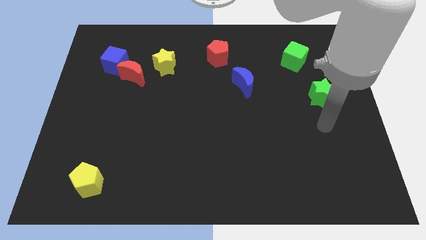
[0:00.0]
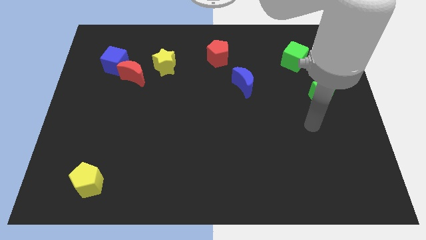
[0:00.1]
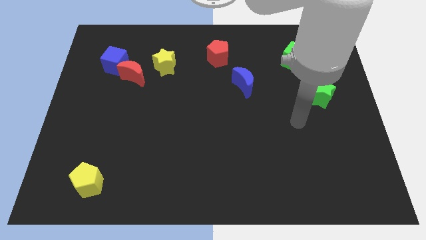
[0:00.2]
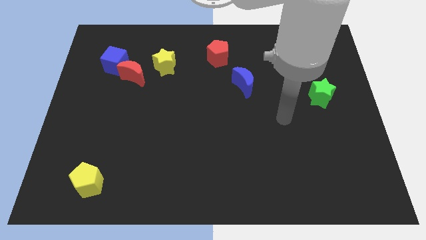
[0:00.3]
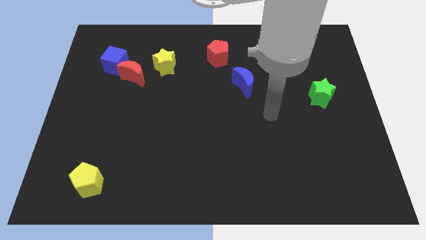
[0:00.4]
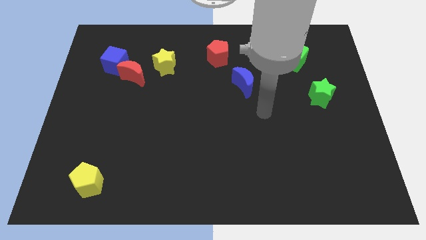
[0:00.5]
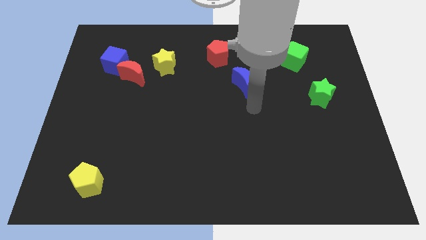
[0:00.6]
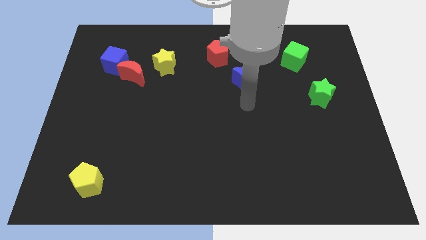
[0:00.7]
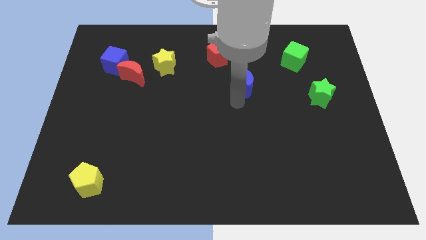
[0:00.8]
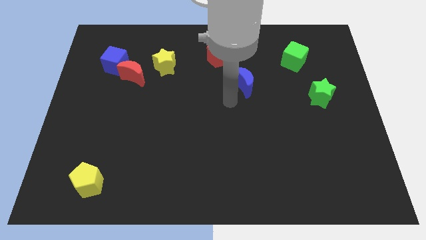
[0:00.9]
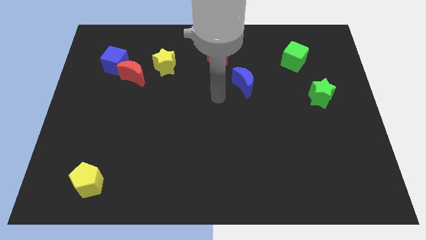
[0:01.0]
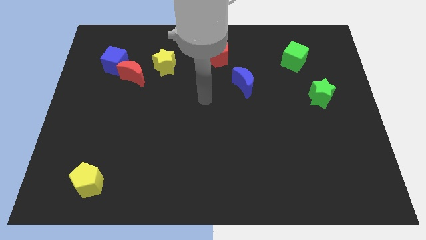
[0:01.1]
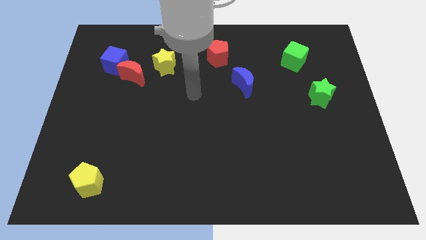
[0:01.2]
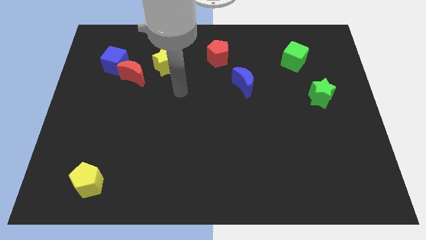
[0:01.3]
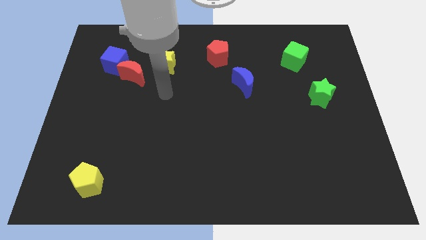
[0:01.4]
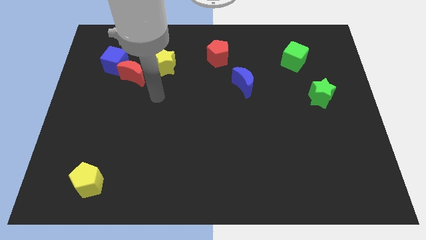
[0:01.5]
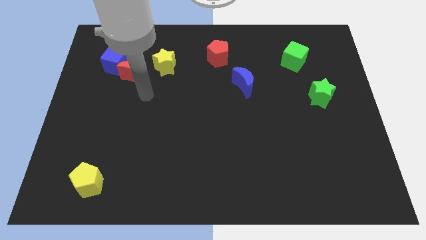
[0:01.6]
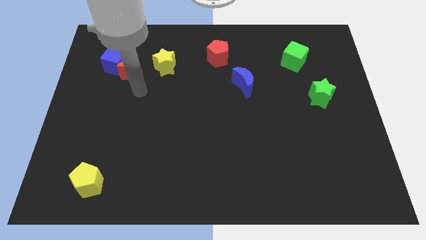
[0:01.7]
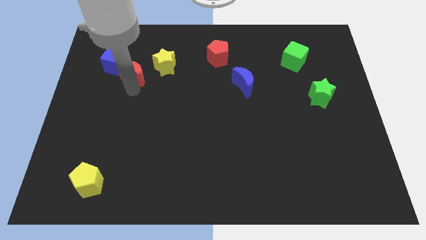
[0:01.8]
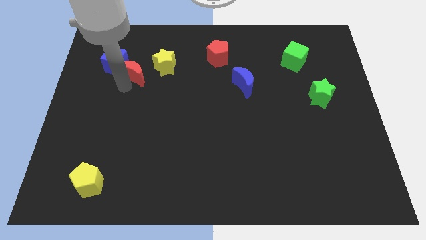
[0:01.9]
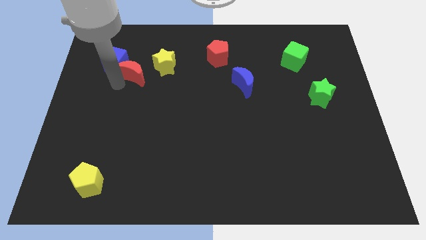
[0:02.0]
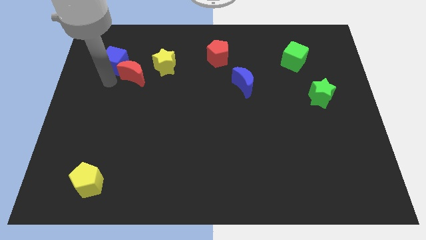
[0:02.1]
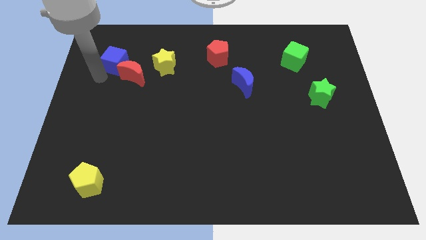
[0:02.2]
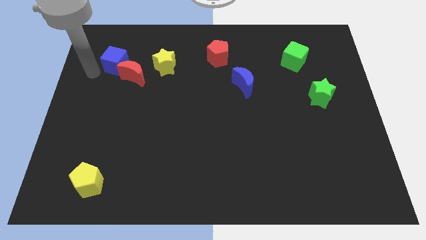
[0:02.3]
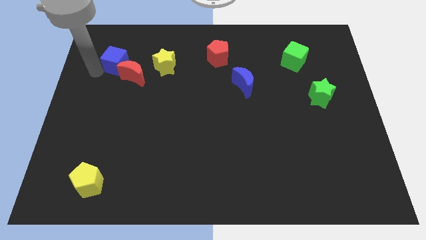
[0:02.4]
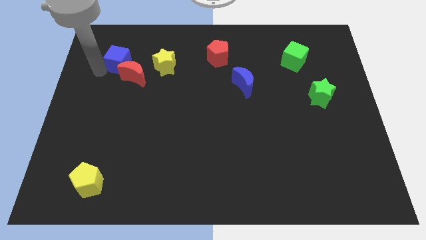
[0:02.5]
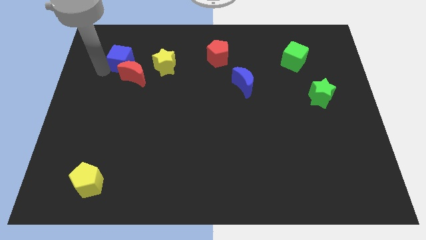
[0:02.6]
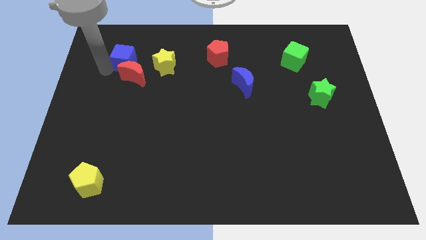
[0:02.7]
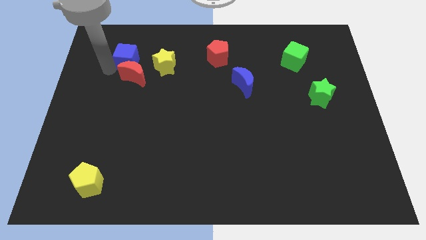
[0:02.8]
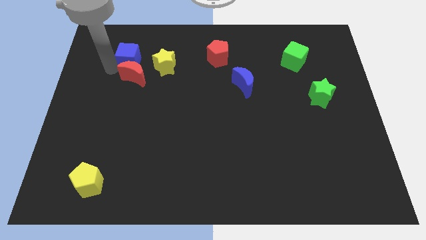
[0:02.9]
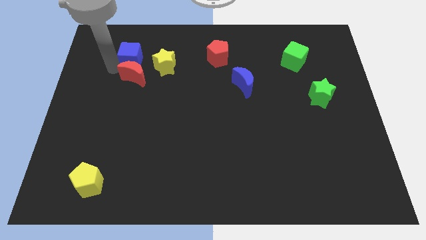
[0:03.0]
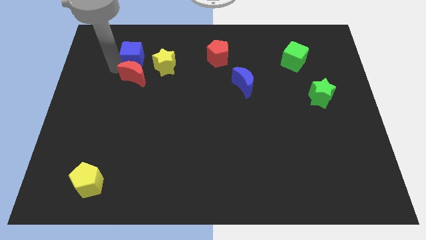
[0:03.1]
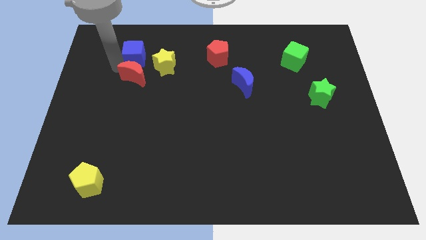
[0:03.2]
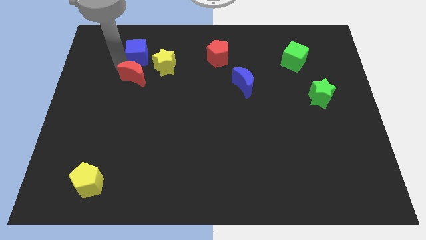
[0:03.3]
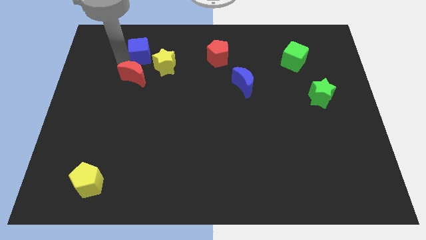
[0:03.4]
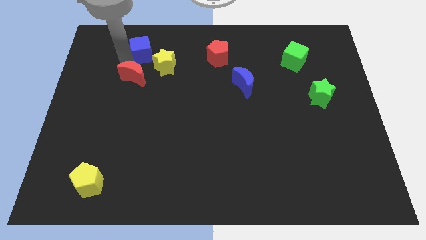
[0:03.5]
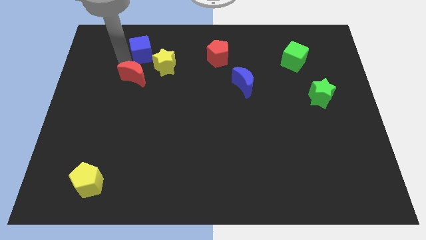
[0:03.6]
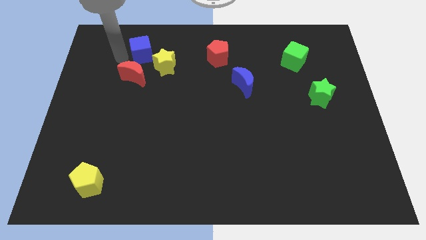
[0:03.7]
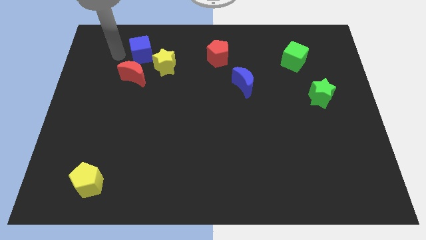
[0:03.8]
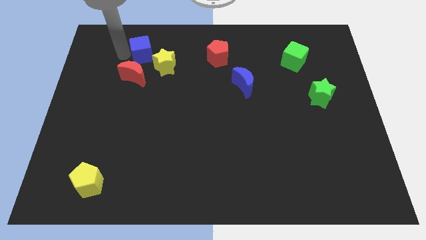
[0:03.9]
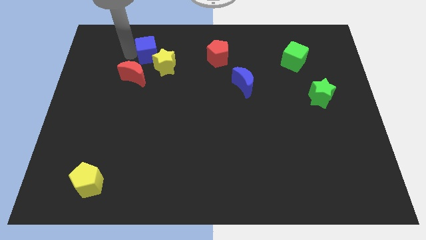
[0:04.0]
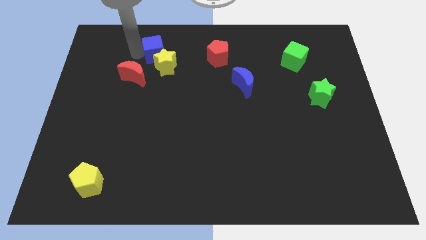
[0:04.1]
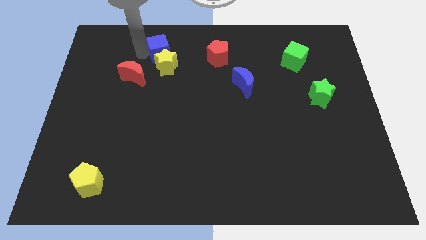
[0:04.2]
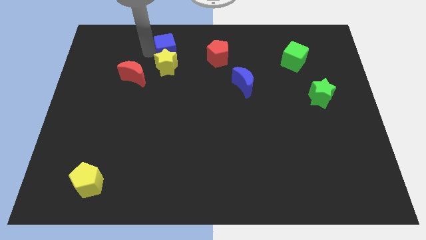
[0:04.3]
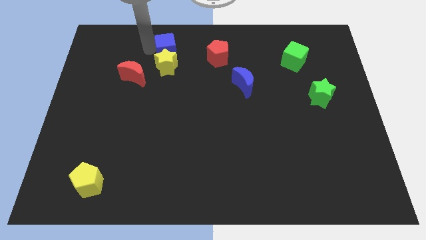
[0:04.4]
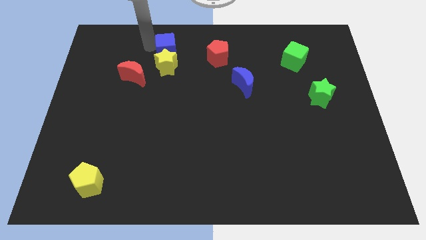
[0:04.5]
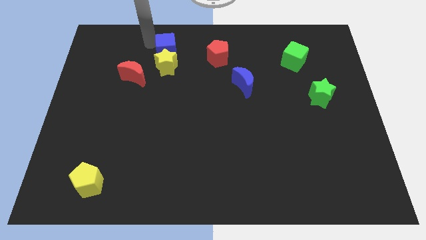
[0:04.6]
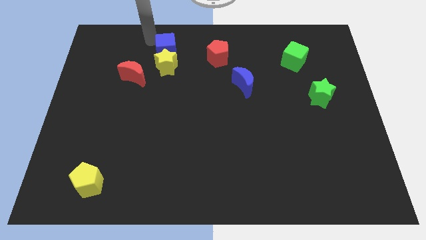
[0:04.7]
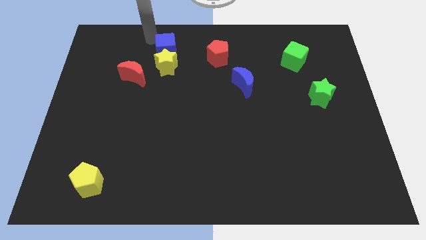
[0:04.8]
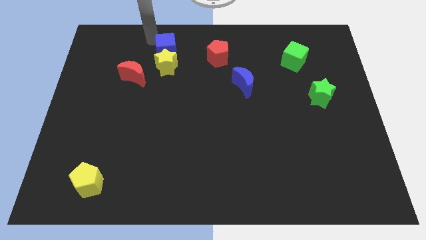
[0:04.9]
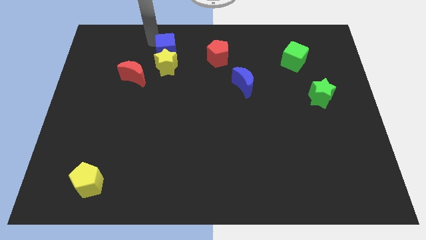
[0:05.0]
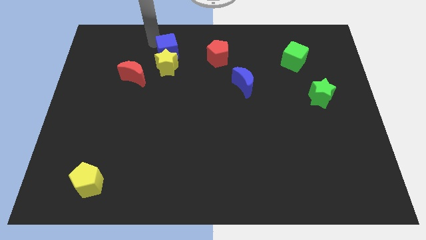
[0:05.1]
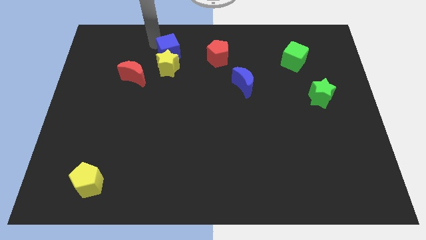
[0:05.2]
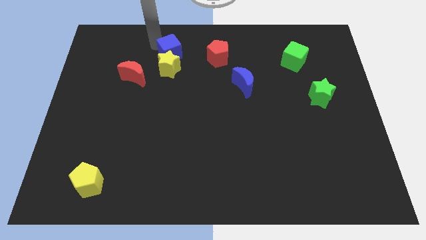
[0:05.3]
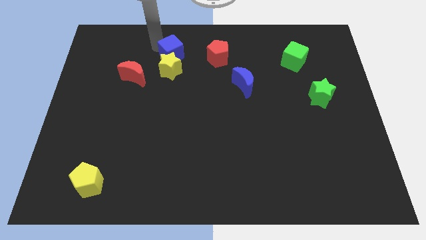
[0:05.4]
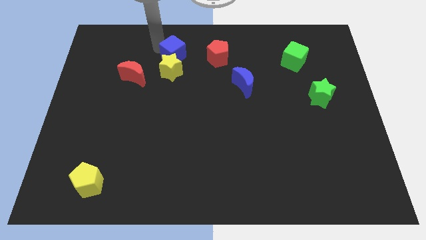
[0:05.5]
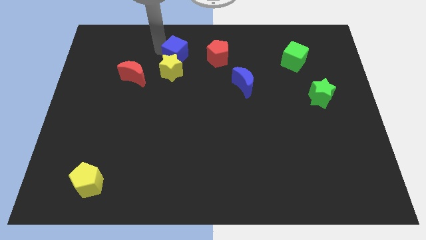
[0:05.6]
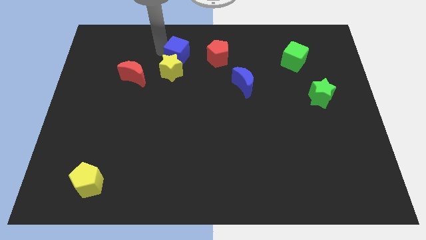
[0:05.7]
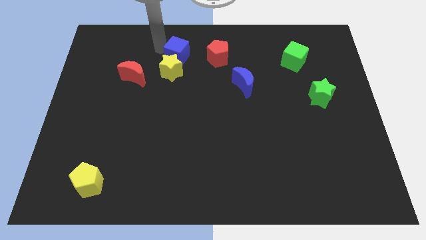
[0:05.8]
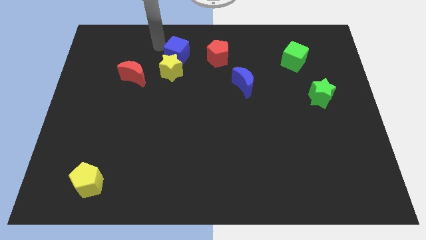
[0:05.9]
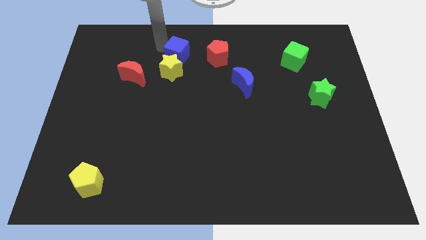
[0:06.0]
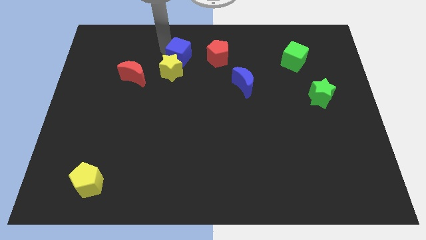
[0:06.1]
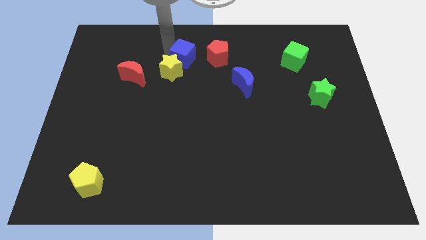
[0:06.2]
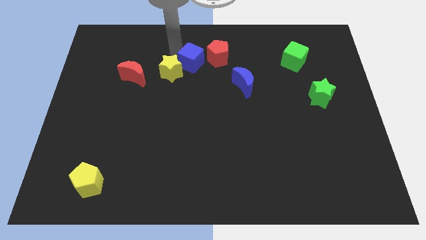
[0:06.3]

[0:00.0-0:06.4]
push the blue cube just right of the yellow star

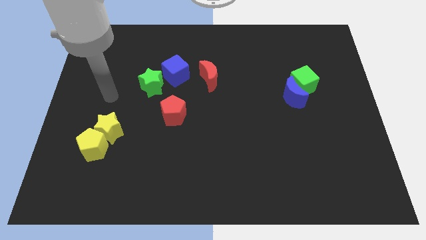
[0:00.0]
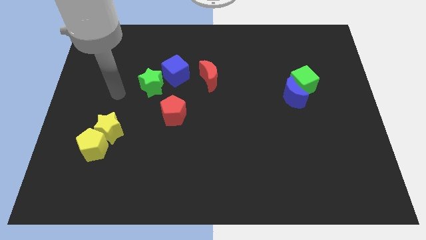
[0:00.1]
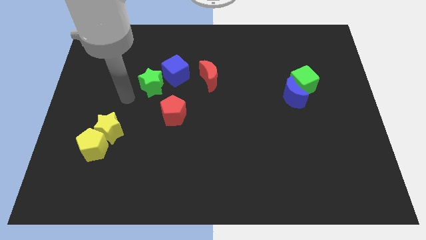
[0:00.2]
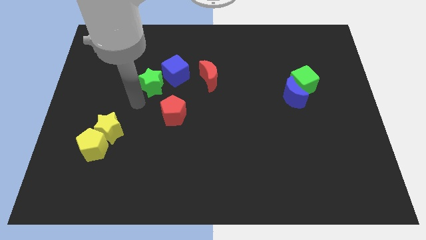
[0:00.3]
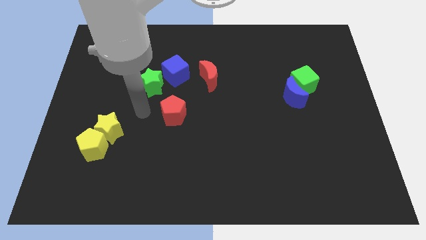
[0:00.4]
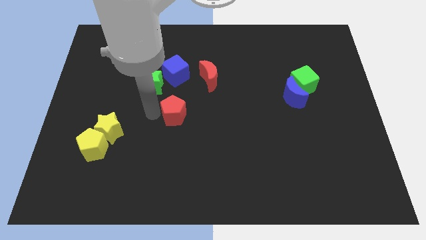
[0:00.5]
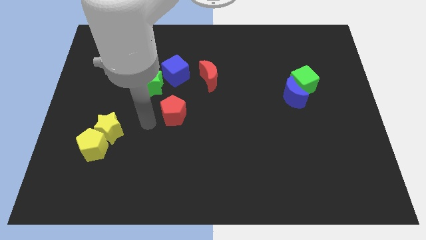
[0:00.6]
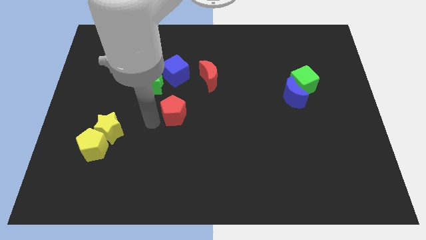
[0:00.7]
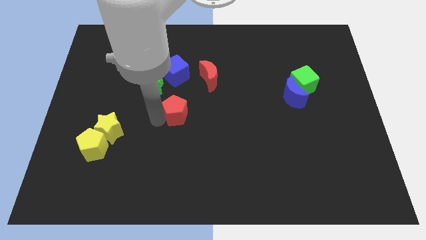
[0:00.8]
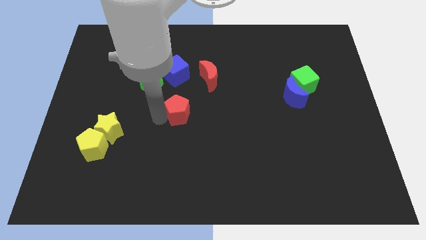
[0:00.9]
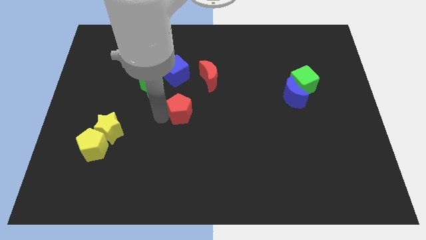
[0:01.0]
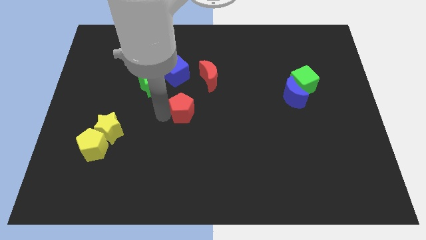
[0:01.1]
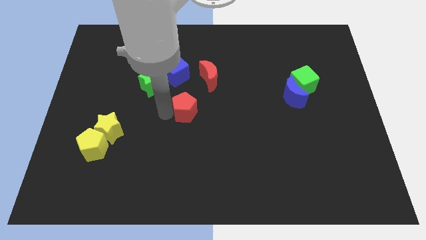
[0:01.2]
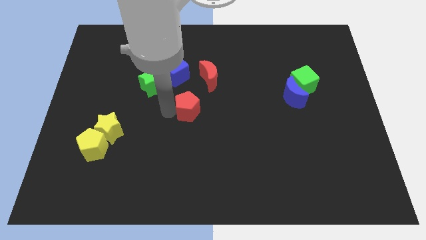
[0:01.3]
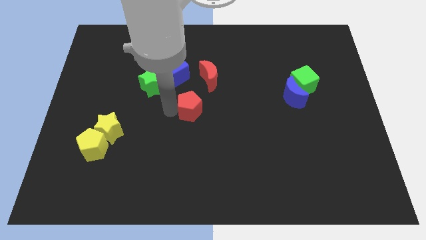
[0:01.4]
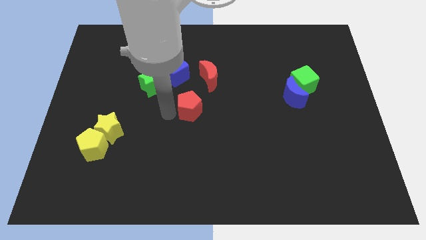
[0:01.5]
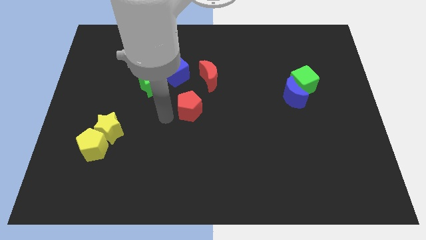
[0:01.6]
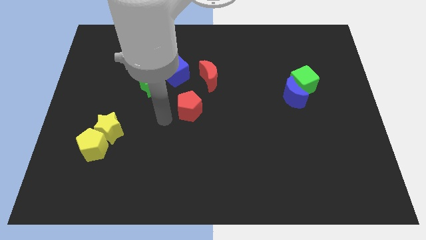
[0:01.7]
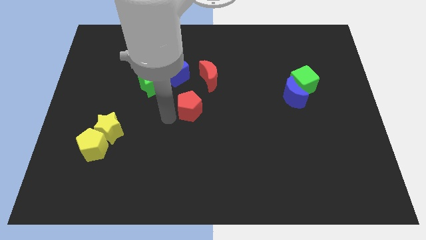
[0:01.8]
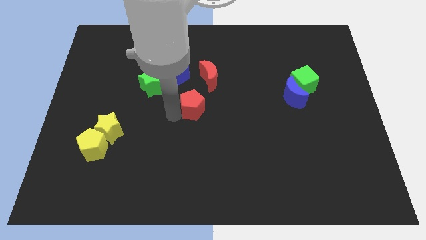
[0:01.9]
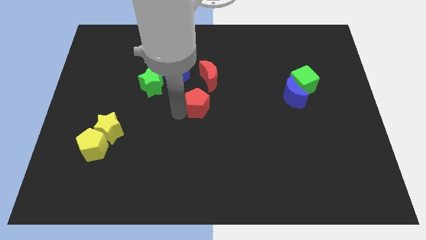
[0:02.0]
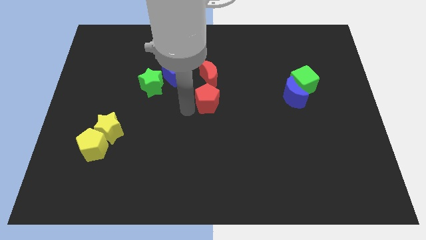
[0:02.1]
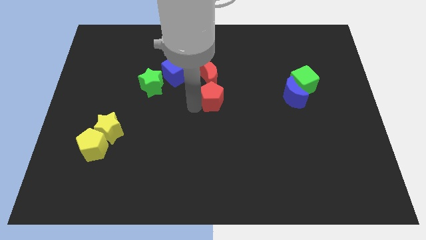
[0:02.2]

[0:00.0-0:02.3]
move the red pentagon to the bottom right of the red moon
